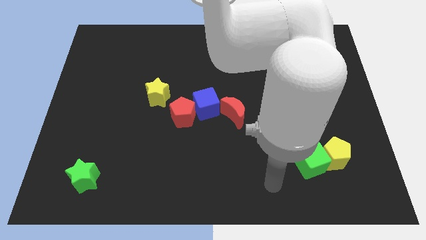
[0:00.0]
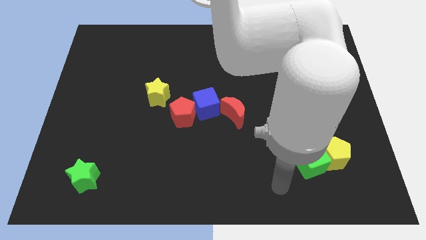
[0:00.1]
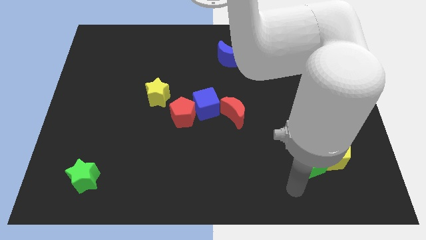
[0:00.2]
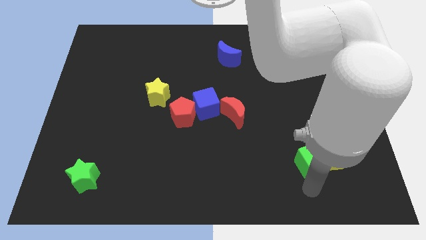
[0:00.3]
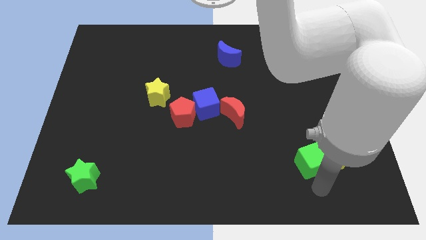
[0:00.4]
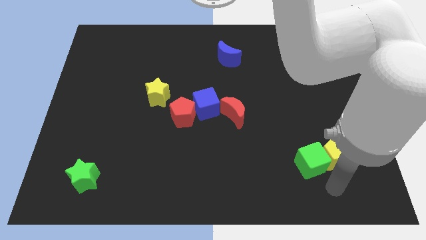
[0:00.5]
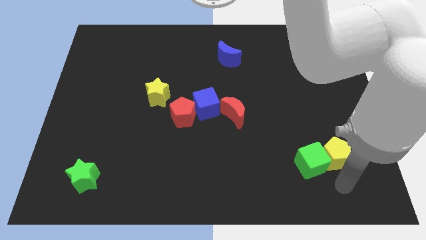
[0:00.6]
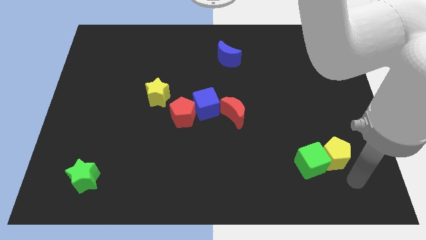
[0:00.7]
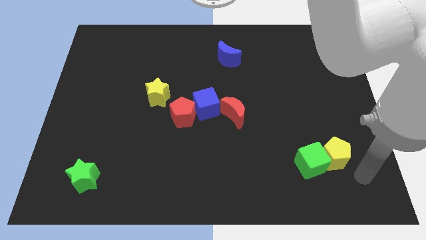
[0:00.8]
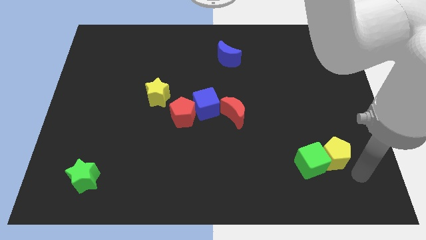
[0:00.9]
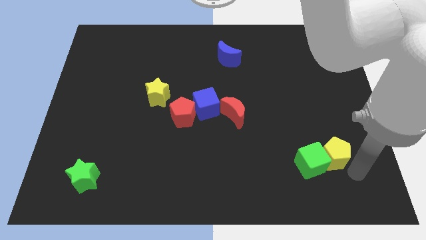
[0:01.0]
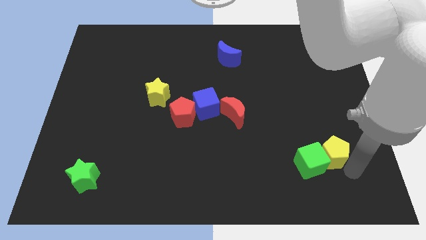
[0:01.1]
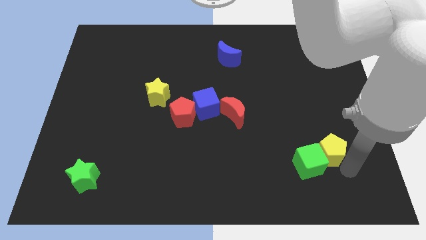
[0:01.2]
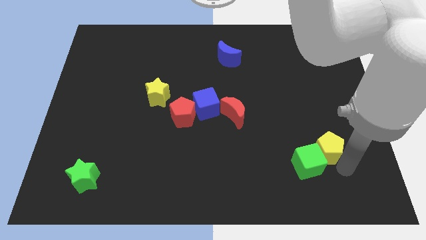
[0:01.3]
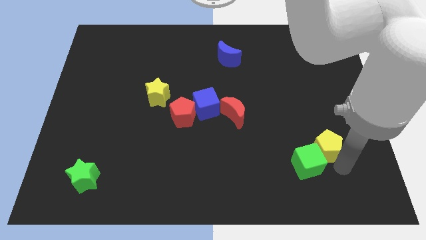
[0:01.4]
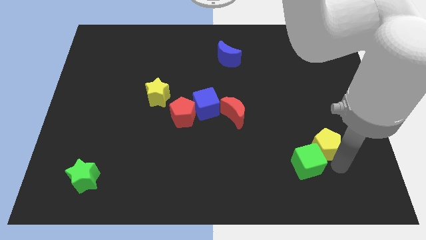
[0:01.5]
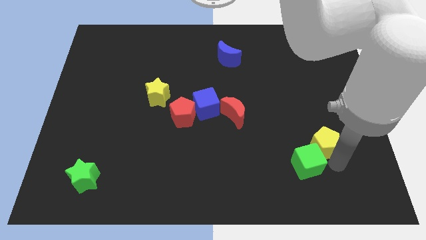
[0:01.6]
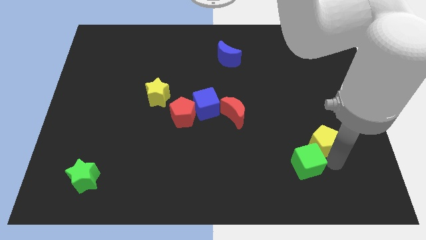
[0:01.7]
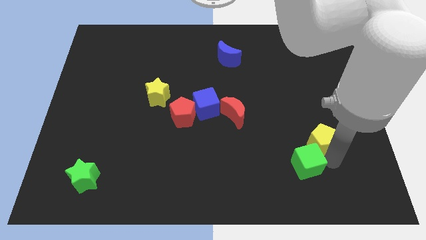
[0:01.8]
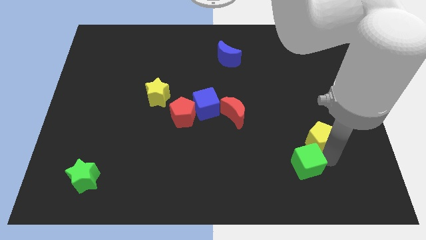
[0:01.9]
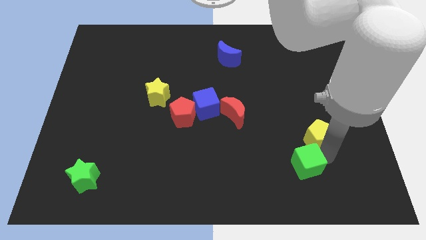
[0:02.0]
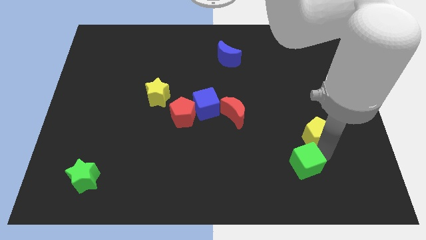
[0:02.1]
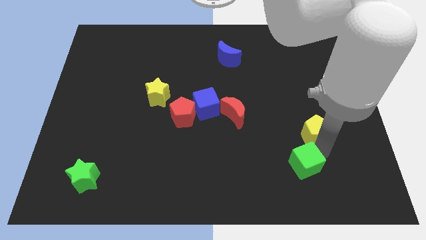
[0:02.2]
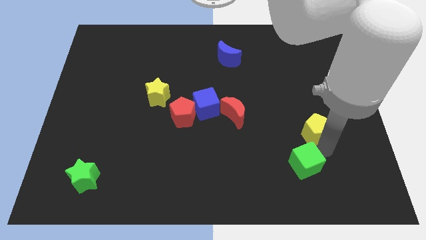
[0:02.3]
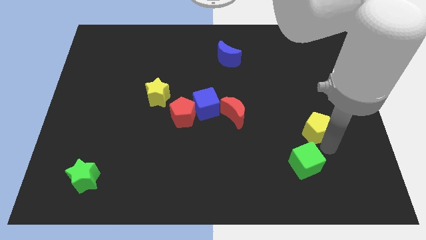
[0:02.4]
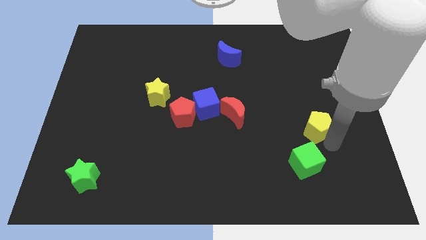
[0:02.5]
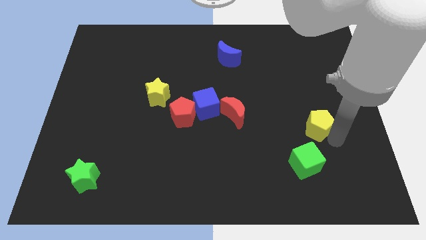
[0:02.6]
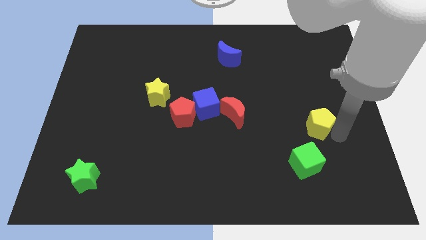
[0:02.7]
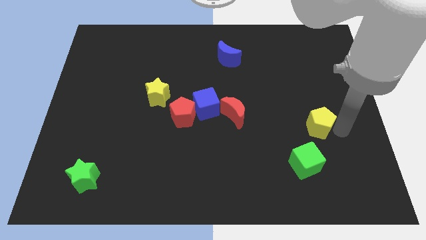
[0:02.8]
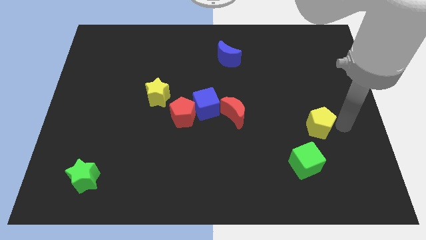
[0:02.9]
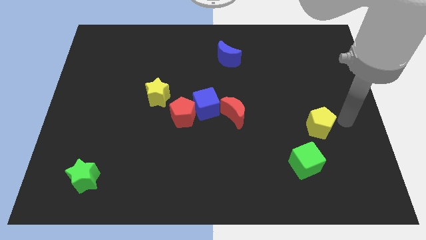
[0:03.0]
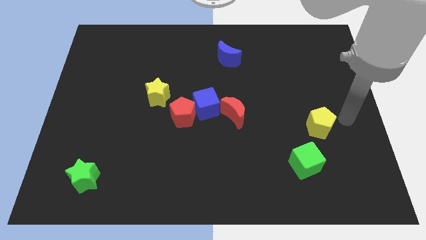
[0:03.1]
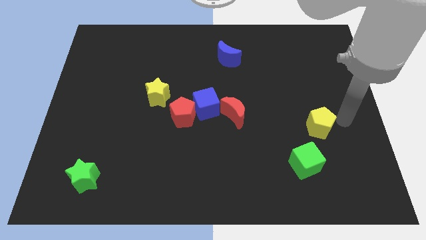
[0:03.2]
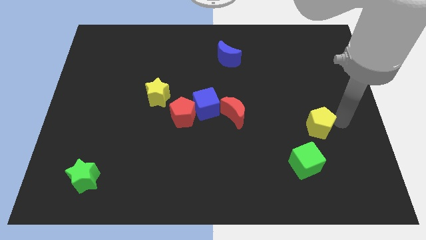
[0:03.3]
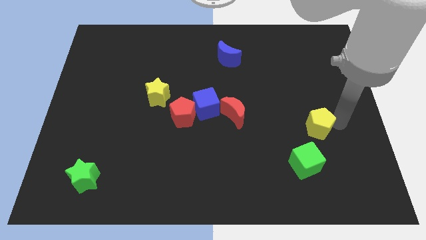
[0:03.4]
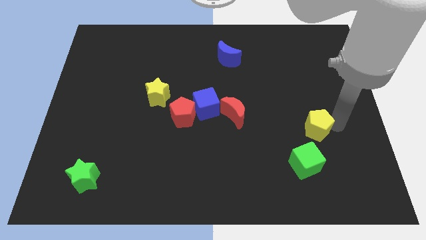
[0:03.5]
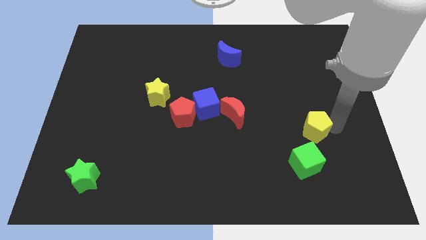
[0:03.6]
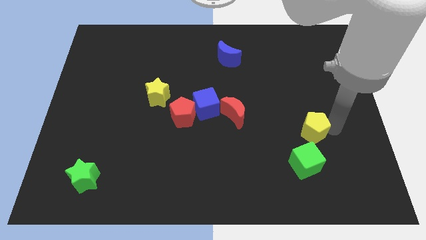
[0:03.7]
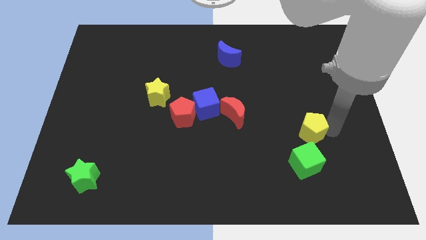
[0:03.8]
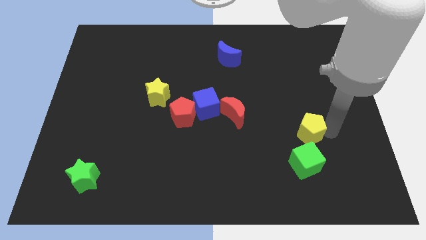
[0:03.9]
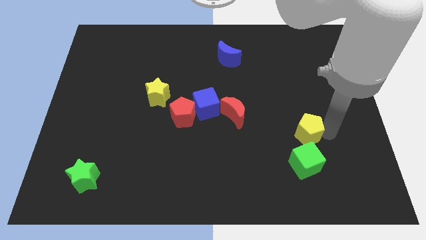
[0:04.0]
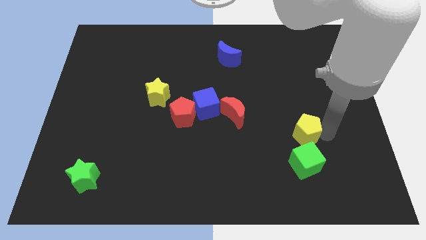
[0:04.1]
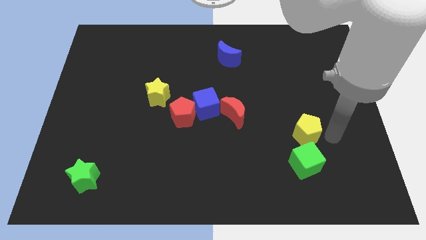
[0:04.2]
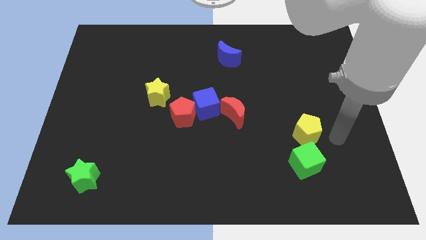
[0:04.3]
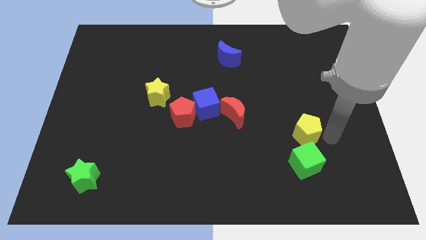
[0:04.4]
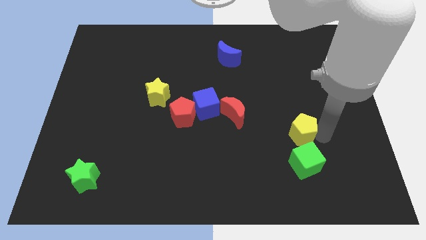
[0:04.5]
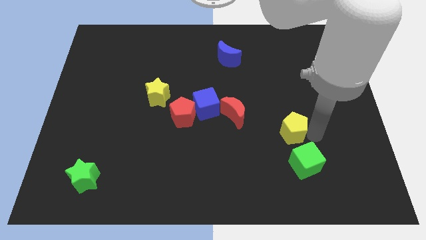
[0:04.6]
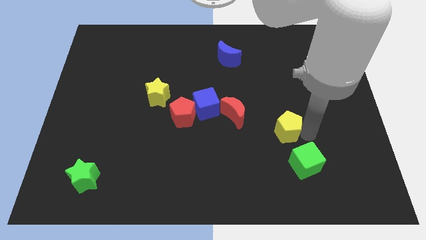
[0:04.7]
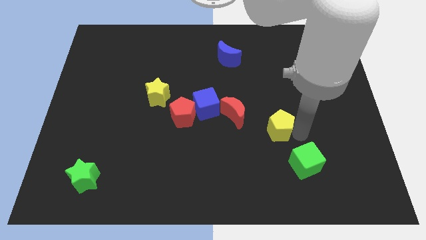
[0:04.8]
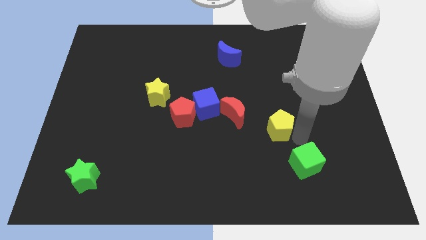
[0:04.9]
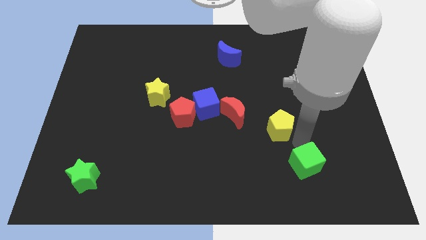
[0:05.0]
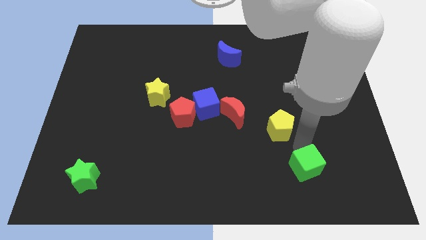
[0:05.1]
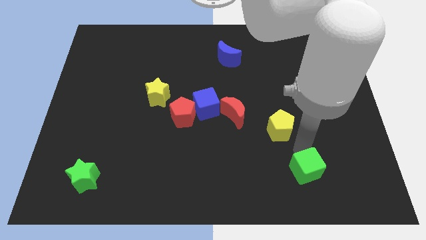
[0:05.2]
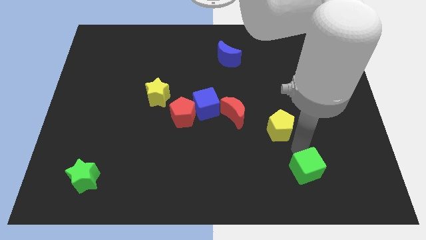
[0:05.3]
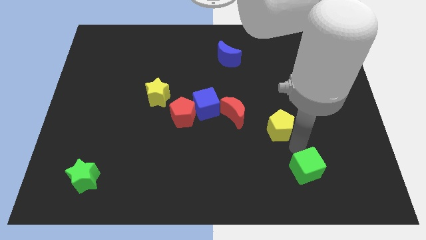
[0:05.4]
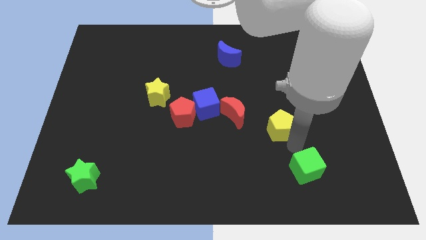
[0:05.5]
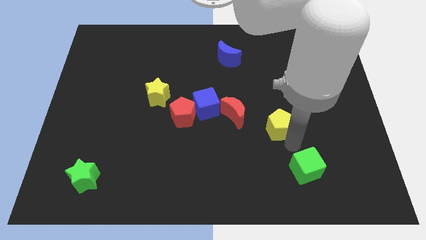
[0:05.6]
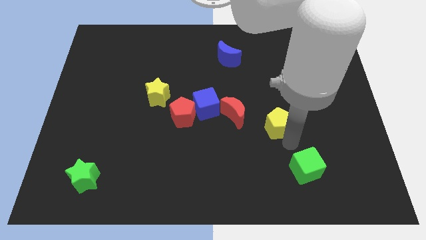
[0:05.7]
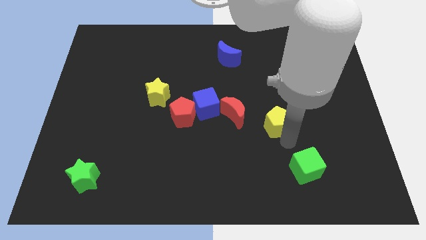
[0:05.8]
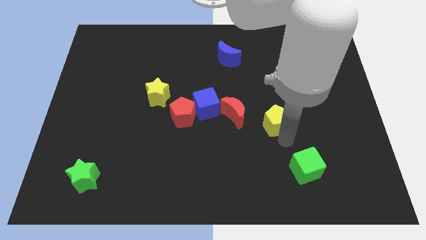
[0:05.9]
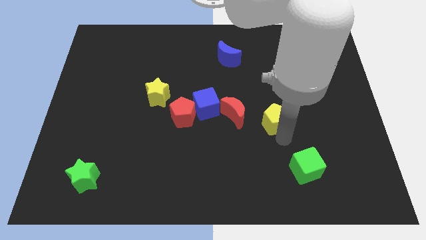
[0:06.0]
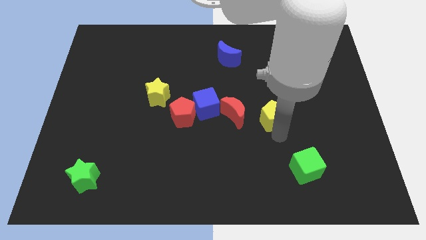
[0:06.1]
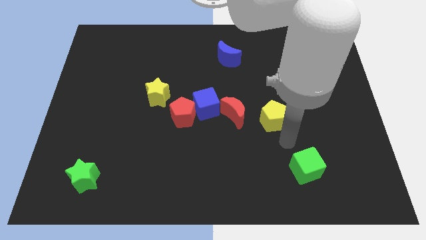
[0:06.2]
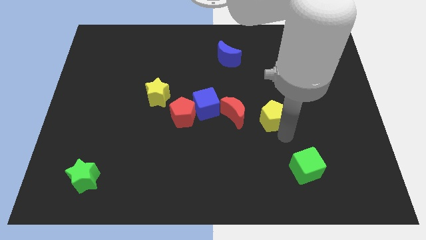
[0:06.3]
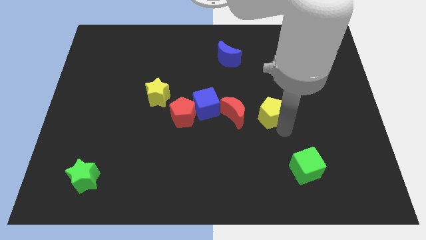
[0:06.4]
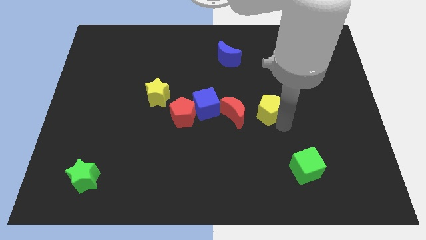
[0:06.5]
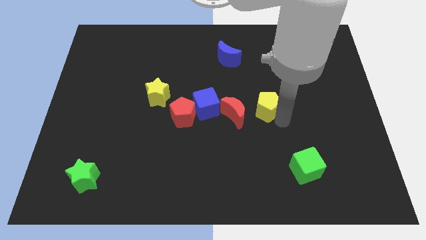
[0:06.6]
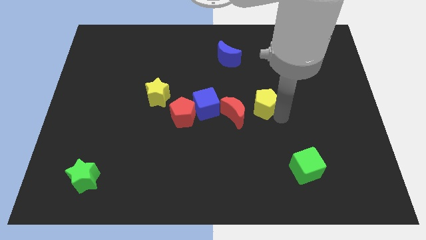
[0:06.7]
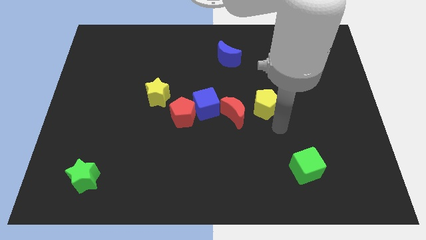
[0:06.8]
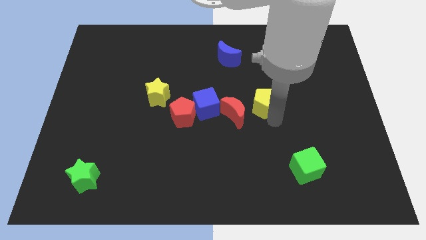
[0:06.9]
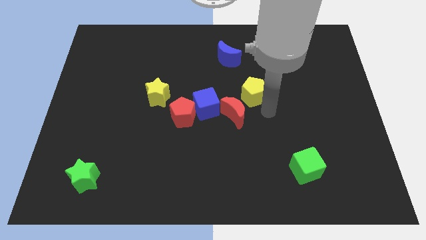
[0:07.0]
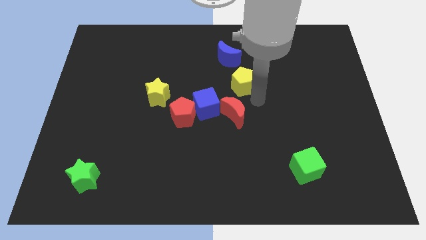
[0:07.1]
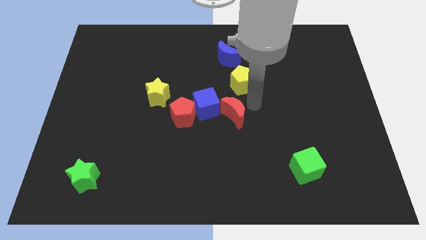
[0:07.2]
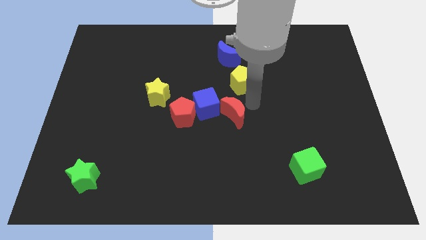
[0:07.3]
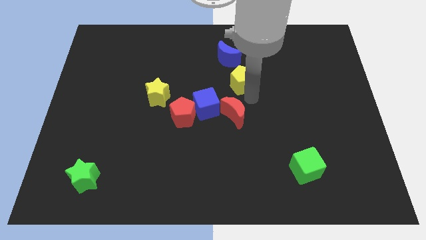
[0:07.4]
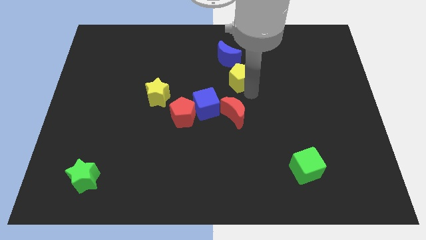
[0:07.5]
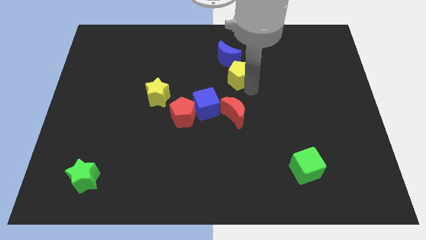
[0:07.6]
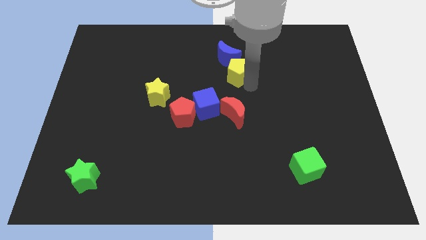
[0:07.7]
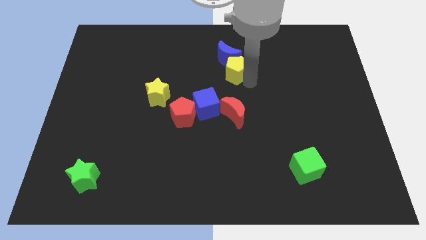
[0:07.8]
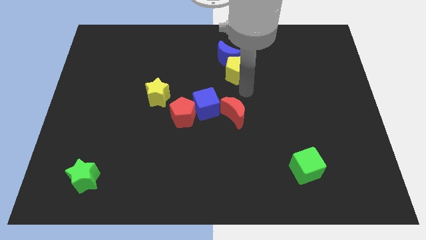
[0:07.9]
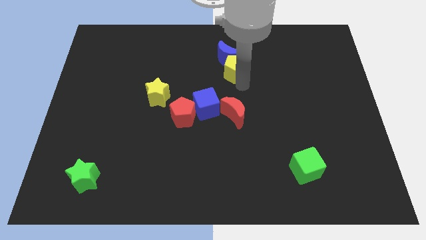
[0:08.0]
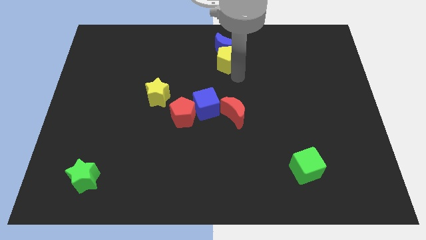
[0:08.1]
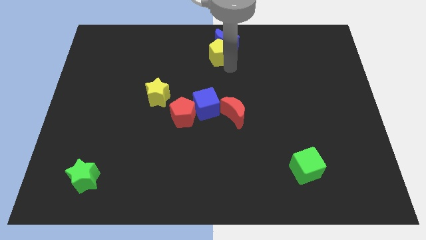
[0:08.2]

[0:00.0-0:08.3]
slide the yellow pentagon to the top
